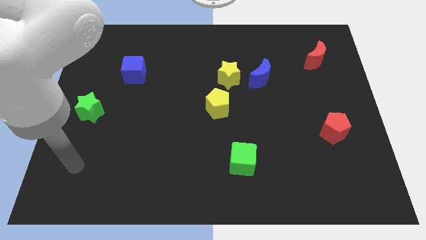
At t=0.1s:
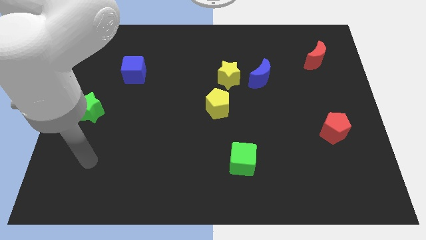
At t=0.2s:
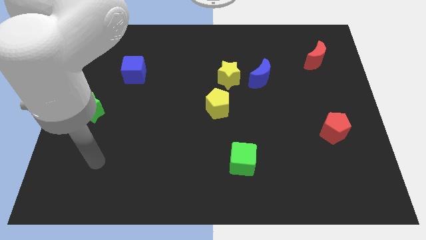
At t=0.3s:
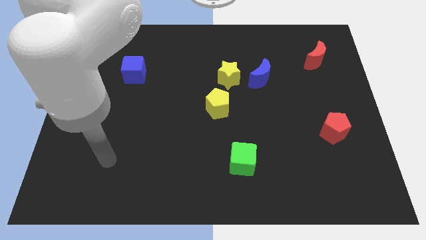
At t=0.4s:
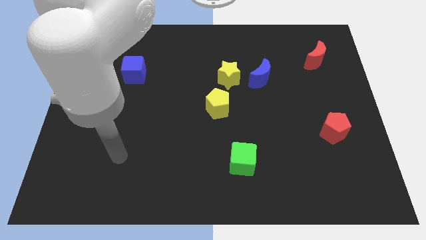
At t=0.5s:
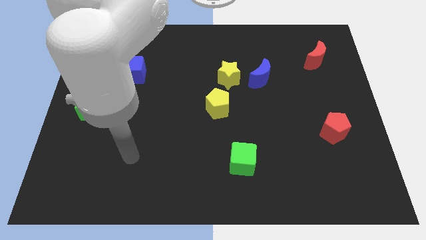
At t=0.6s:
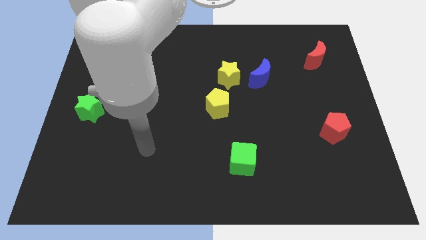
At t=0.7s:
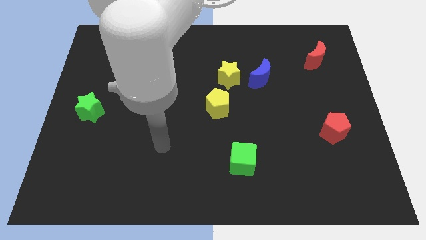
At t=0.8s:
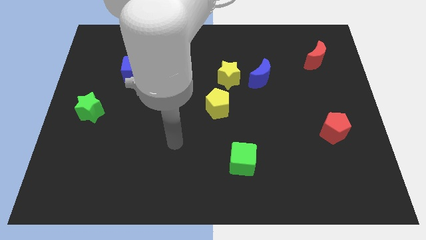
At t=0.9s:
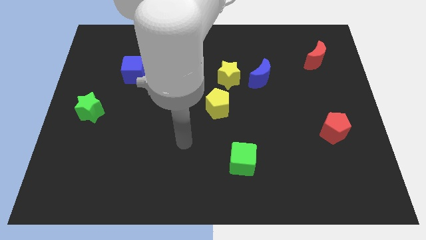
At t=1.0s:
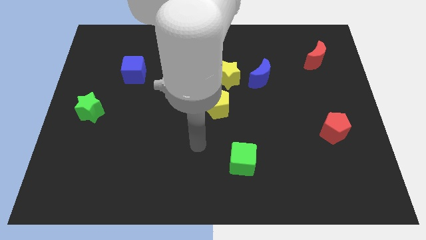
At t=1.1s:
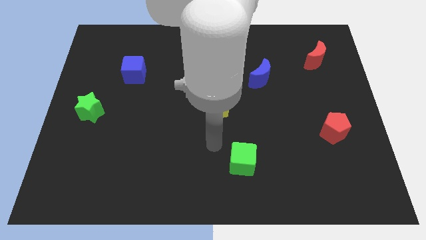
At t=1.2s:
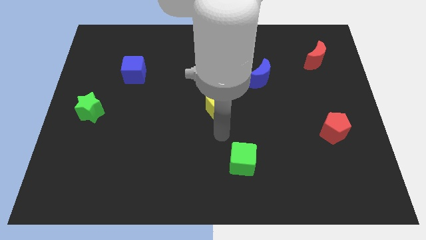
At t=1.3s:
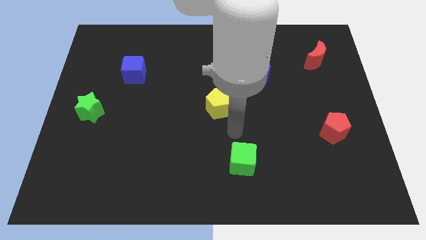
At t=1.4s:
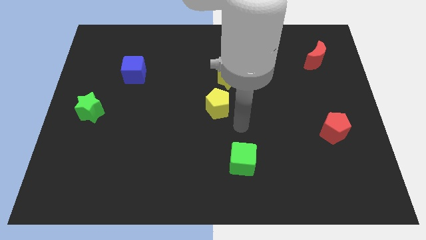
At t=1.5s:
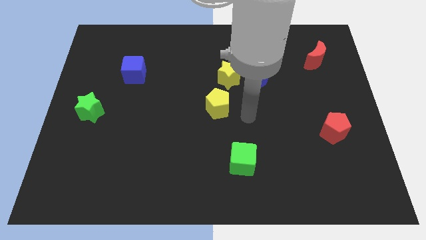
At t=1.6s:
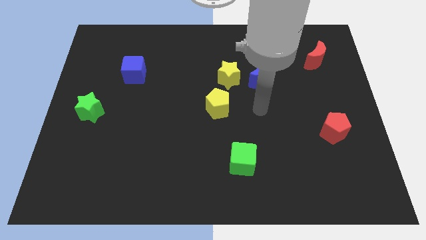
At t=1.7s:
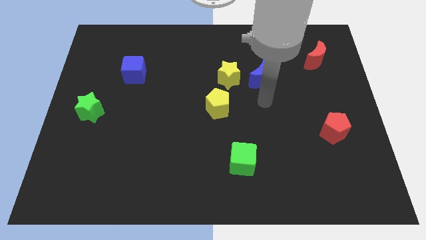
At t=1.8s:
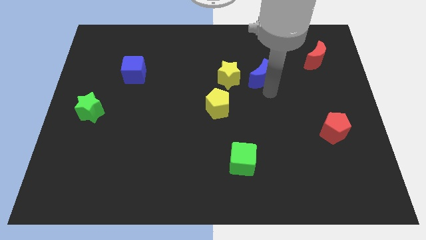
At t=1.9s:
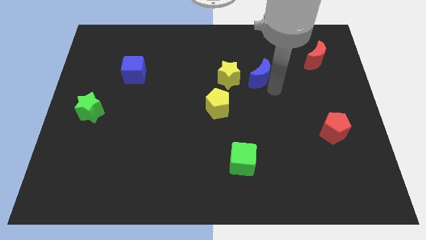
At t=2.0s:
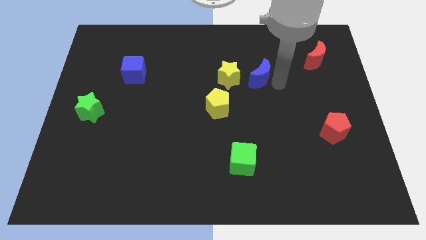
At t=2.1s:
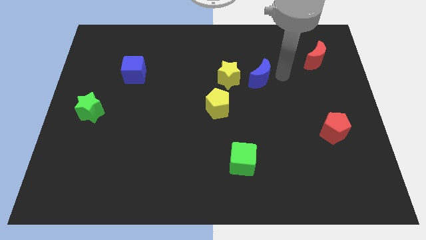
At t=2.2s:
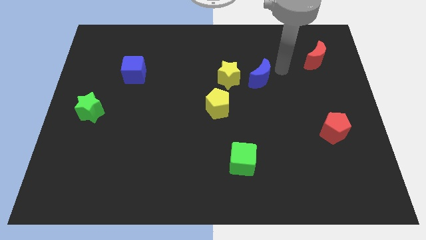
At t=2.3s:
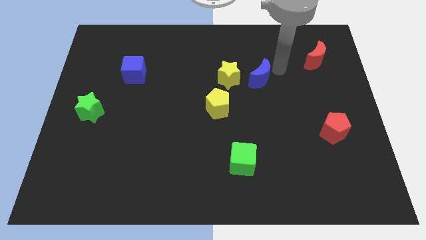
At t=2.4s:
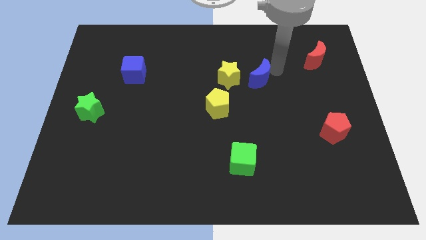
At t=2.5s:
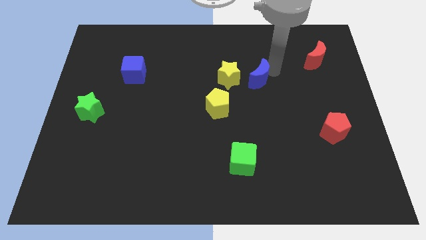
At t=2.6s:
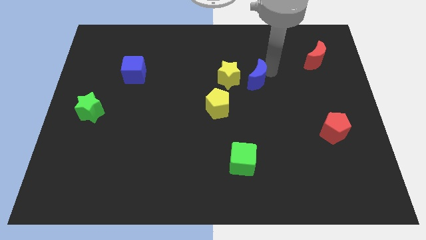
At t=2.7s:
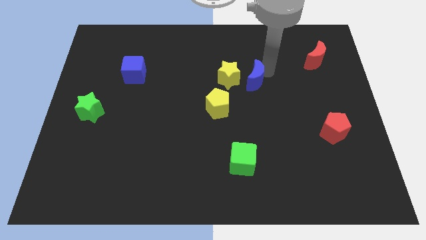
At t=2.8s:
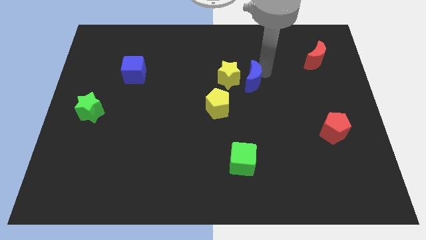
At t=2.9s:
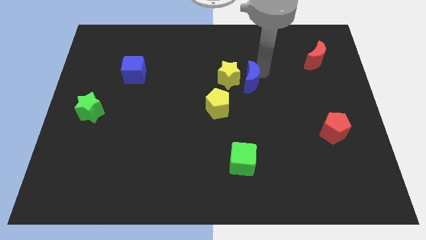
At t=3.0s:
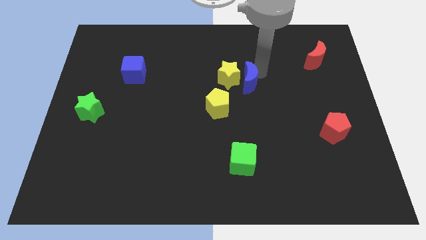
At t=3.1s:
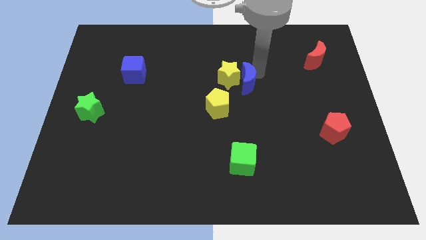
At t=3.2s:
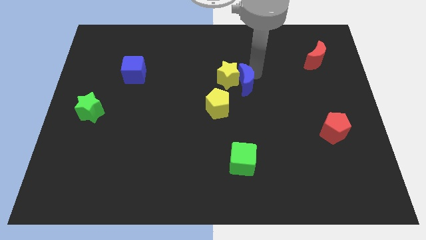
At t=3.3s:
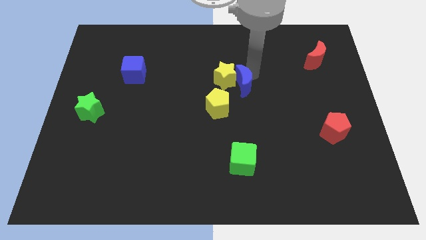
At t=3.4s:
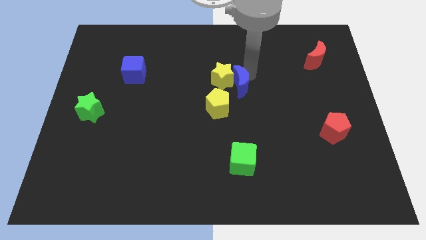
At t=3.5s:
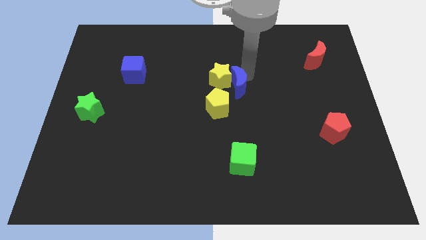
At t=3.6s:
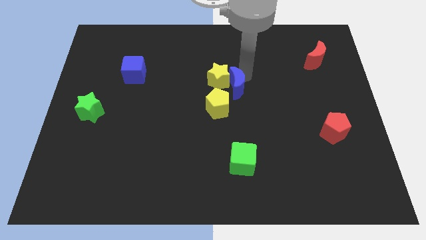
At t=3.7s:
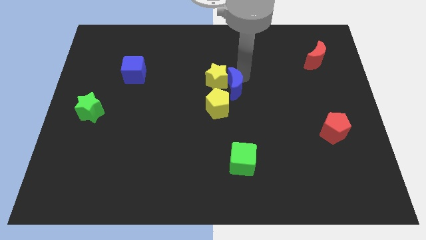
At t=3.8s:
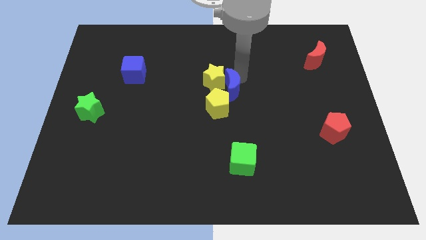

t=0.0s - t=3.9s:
slide the blue moon left a little bit

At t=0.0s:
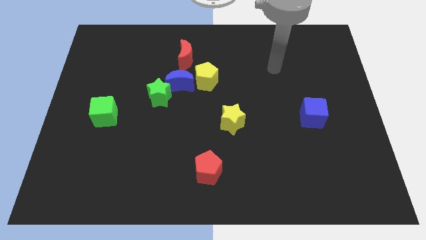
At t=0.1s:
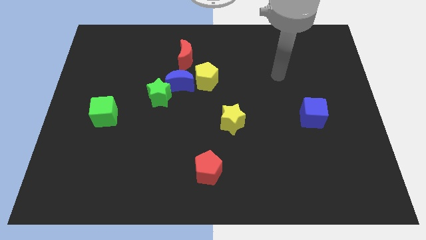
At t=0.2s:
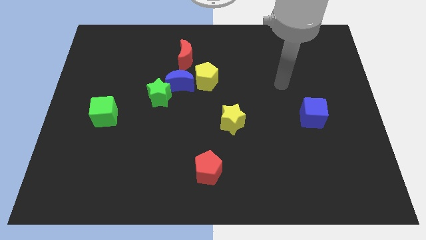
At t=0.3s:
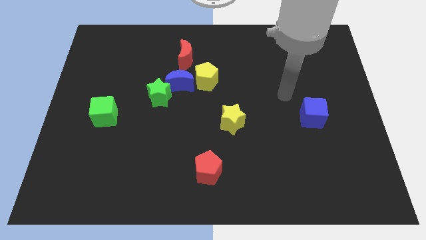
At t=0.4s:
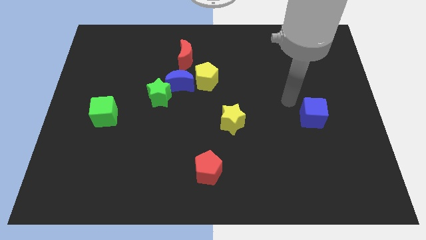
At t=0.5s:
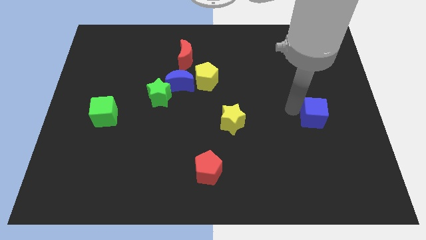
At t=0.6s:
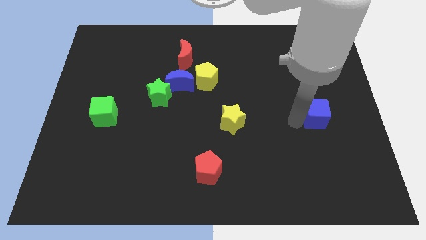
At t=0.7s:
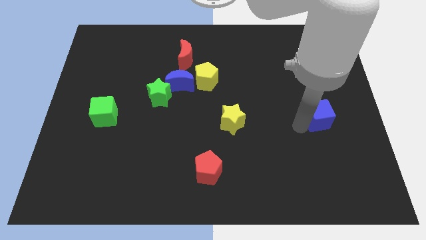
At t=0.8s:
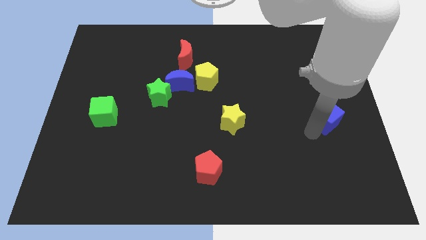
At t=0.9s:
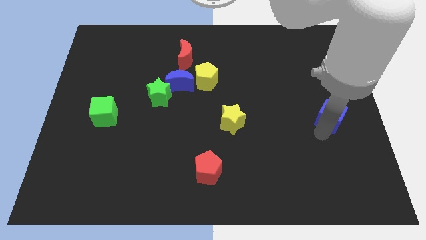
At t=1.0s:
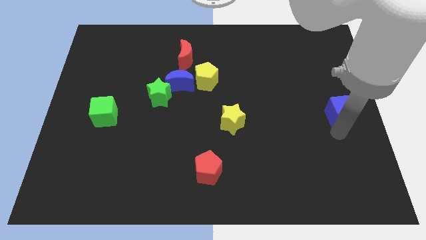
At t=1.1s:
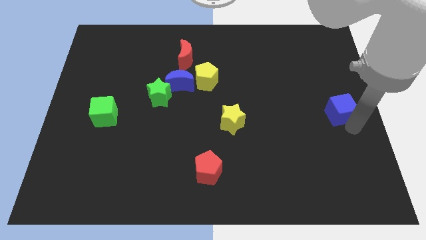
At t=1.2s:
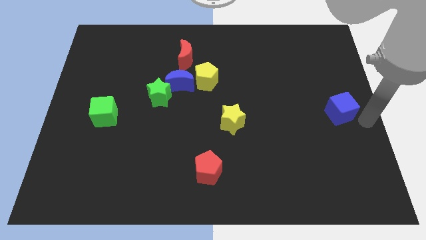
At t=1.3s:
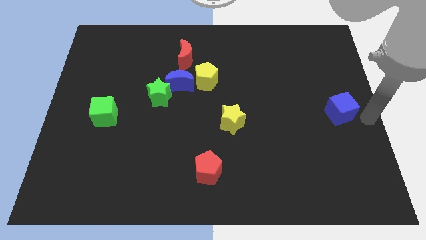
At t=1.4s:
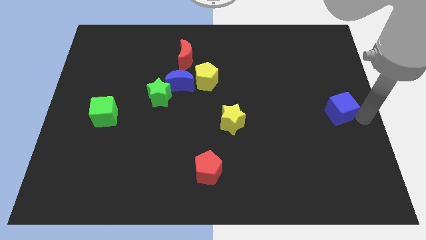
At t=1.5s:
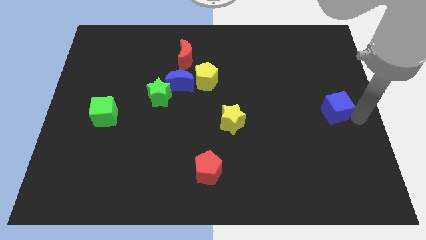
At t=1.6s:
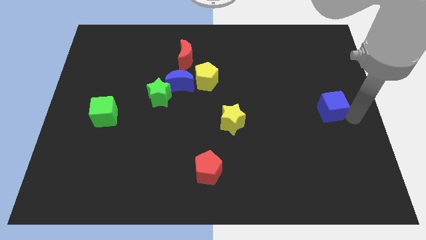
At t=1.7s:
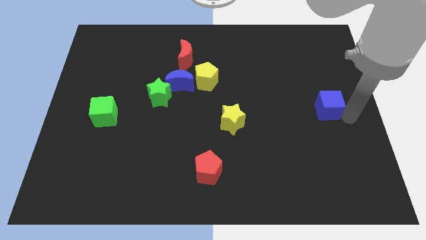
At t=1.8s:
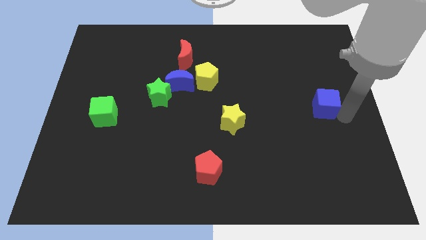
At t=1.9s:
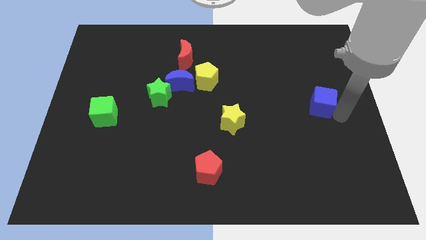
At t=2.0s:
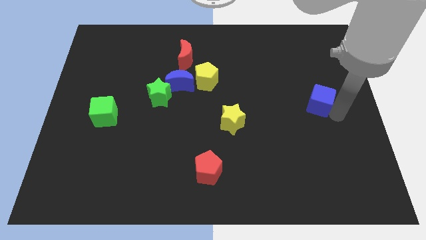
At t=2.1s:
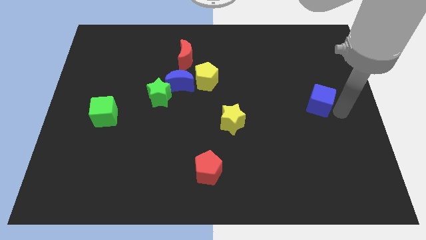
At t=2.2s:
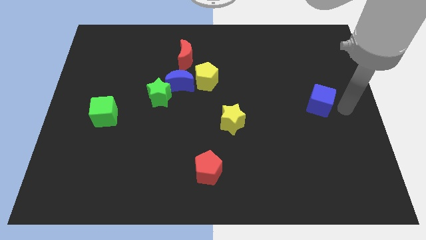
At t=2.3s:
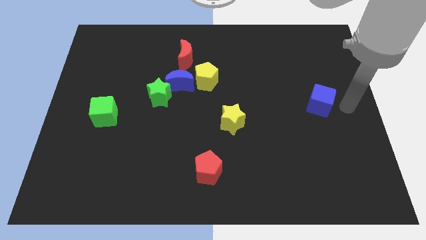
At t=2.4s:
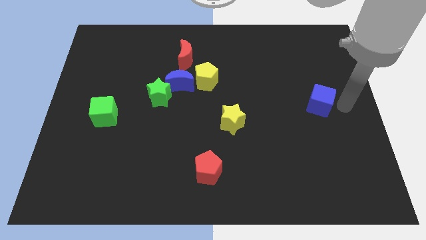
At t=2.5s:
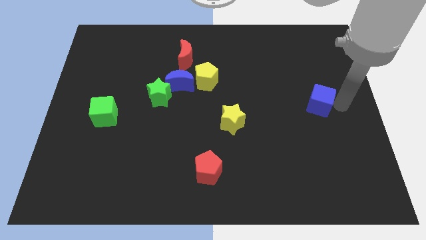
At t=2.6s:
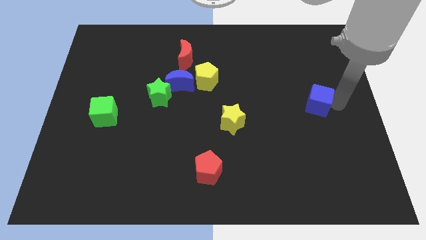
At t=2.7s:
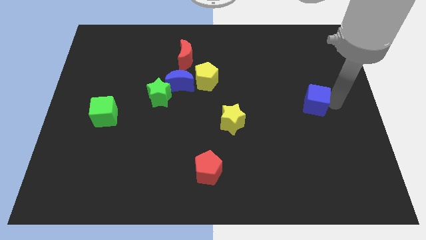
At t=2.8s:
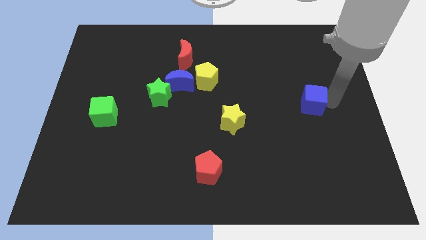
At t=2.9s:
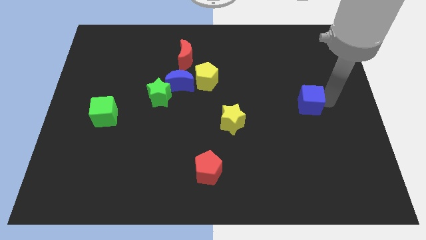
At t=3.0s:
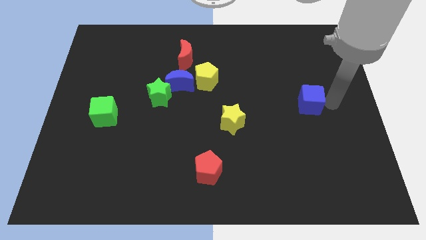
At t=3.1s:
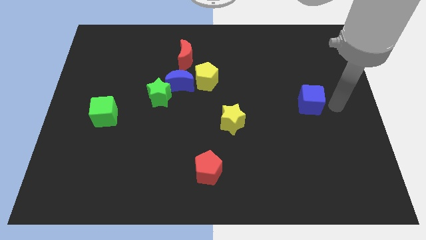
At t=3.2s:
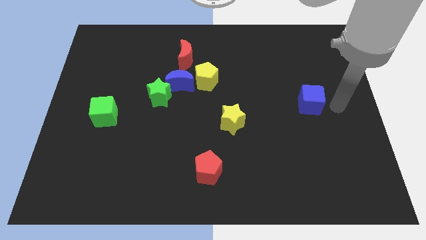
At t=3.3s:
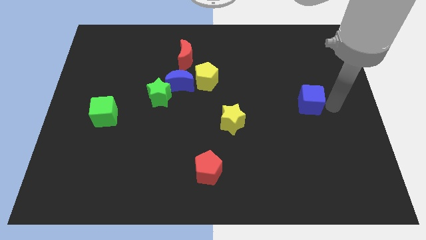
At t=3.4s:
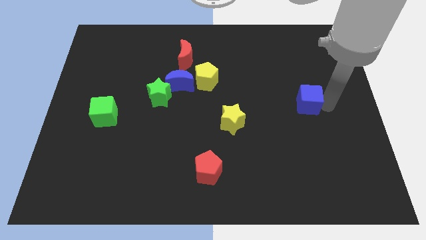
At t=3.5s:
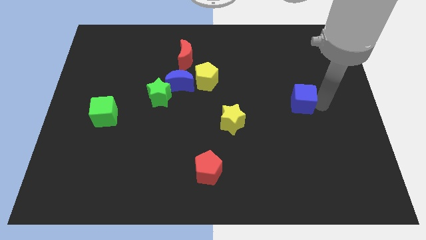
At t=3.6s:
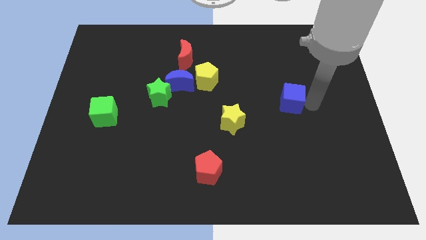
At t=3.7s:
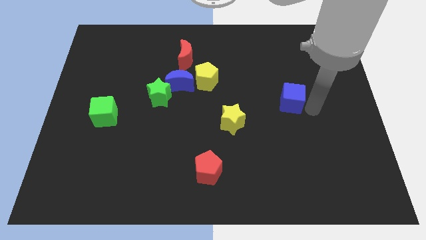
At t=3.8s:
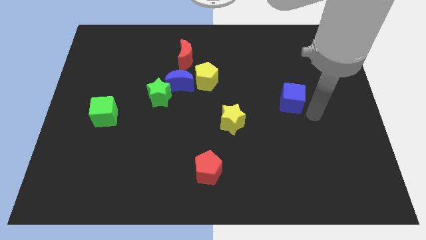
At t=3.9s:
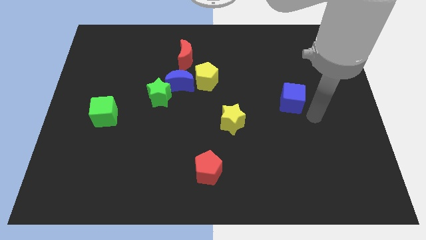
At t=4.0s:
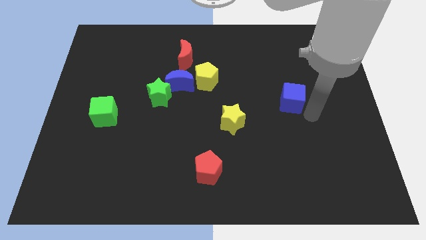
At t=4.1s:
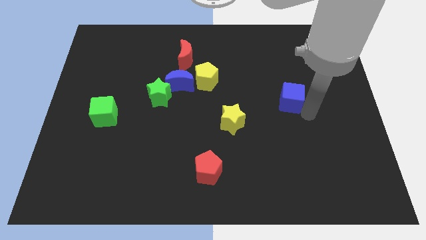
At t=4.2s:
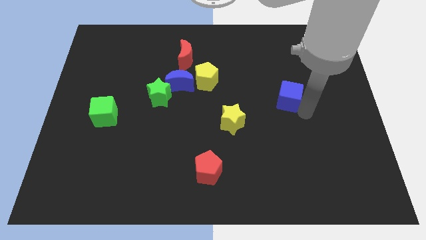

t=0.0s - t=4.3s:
move the blue cube diagonally upwards and left a little
